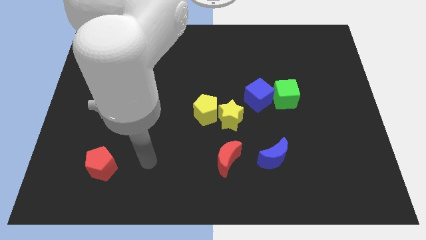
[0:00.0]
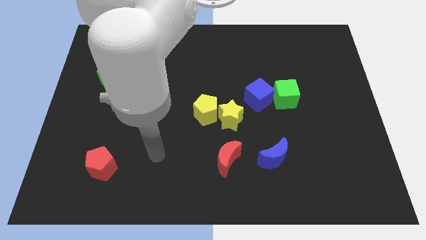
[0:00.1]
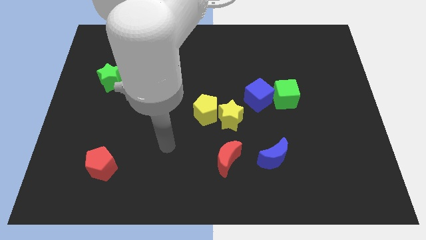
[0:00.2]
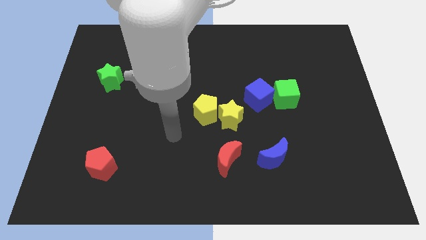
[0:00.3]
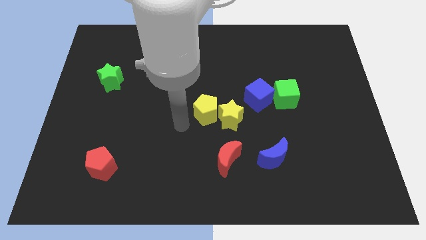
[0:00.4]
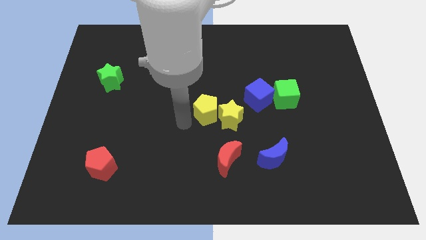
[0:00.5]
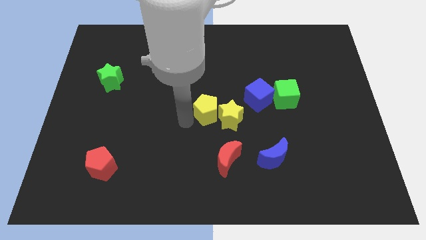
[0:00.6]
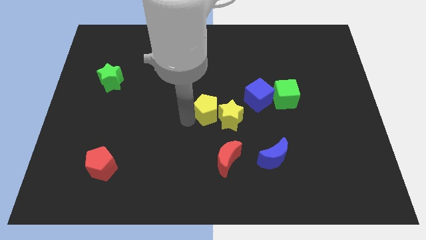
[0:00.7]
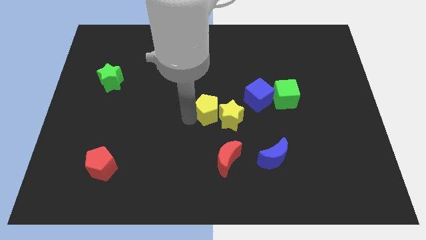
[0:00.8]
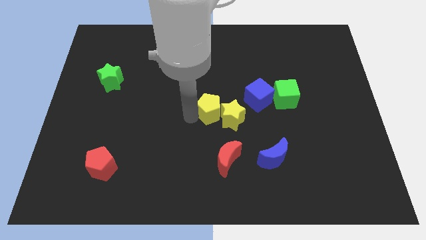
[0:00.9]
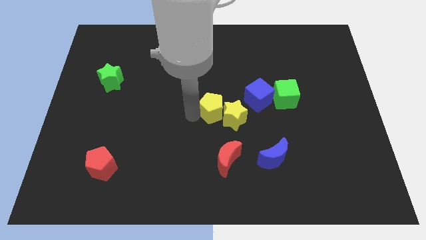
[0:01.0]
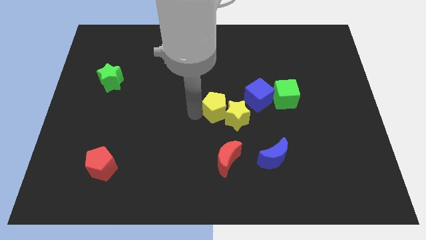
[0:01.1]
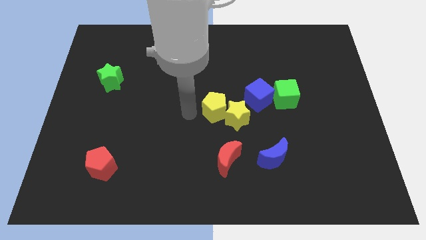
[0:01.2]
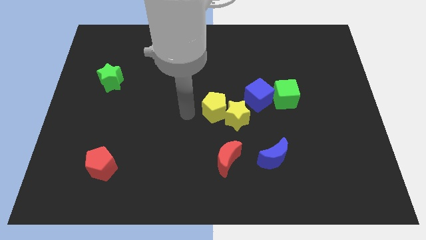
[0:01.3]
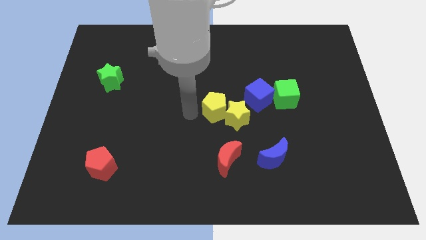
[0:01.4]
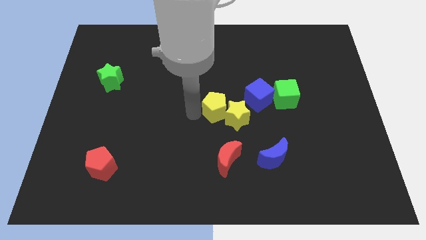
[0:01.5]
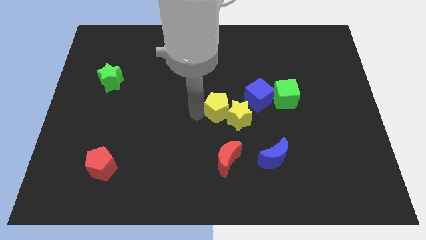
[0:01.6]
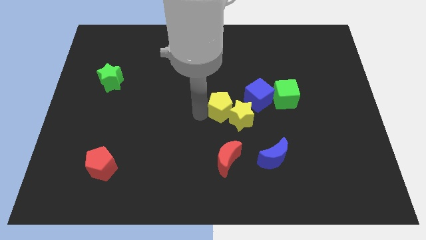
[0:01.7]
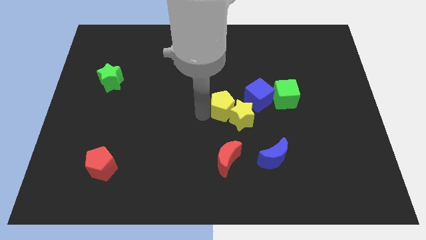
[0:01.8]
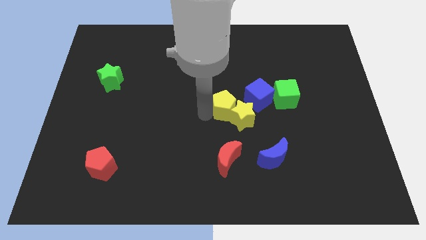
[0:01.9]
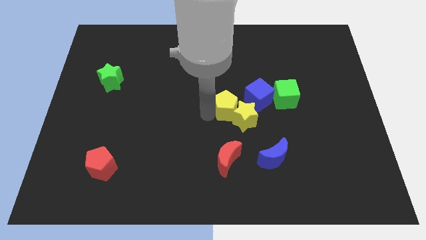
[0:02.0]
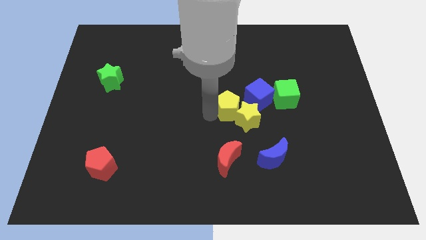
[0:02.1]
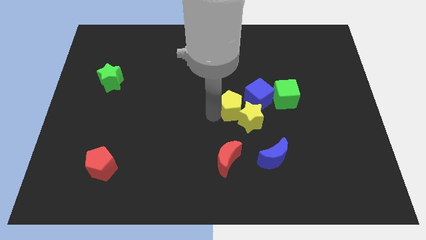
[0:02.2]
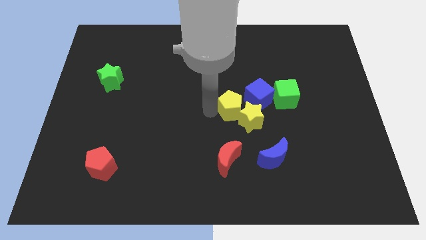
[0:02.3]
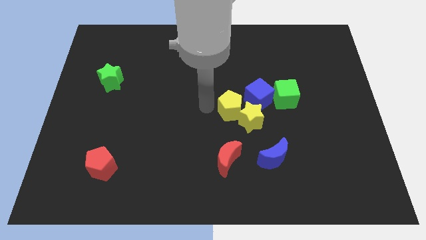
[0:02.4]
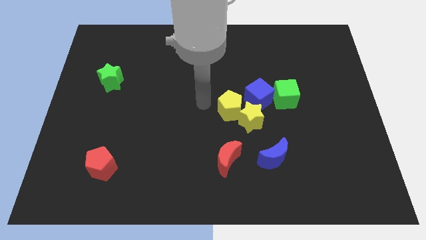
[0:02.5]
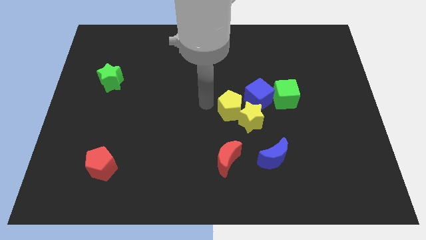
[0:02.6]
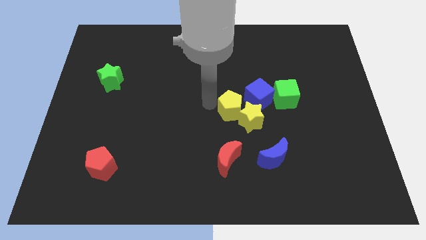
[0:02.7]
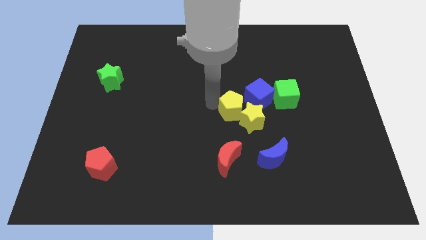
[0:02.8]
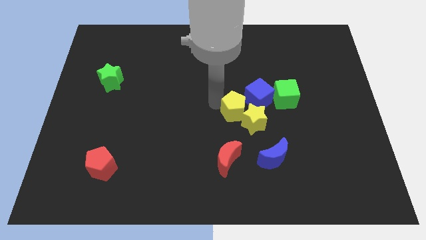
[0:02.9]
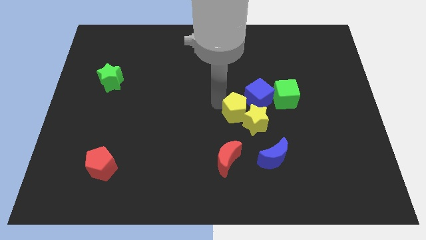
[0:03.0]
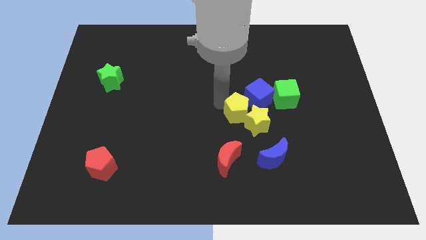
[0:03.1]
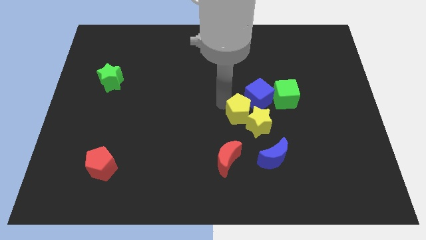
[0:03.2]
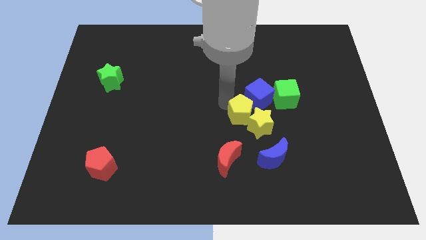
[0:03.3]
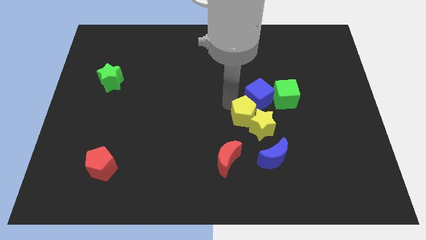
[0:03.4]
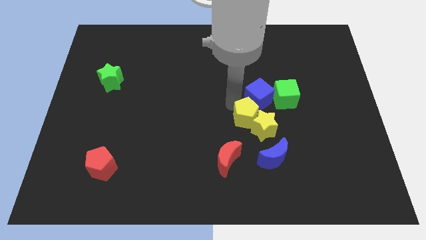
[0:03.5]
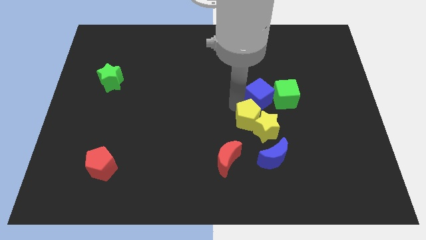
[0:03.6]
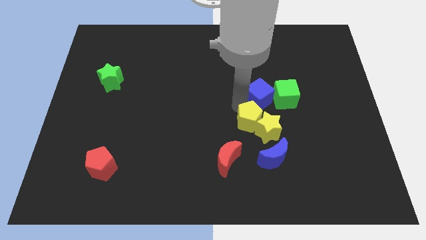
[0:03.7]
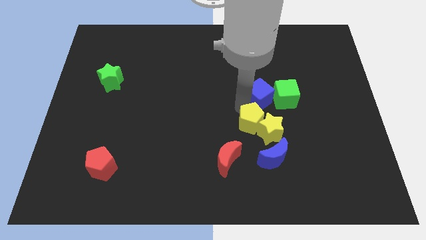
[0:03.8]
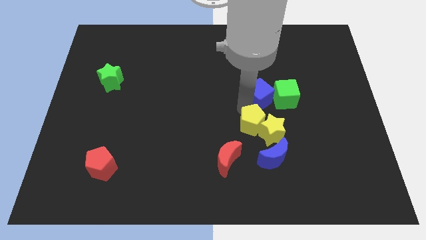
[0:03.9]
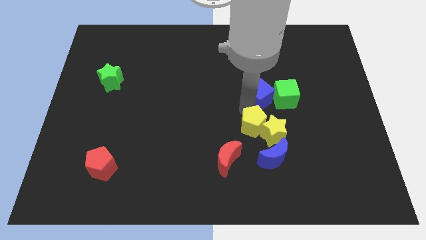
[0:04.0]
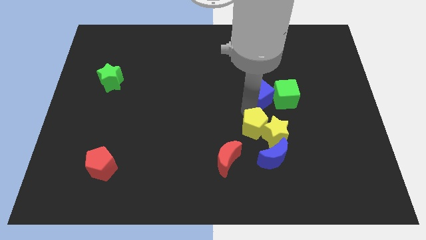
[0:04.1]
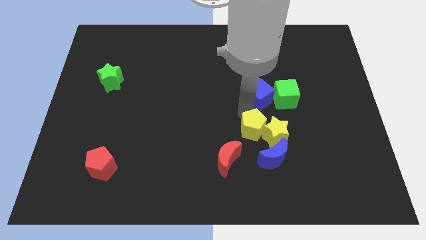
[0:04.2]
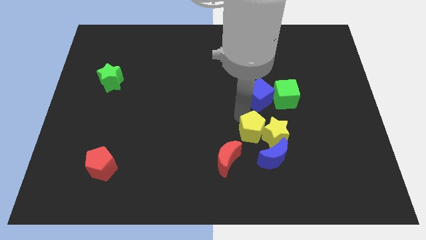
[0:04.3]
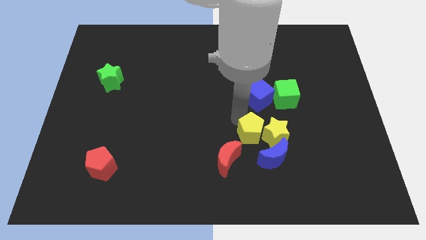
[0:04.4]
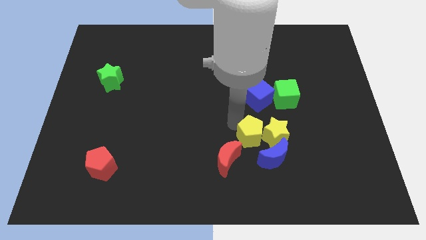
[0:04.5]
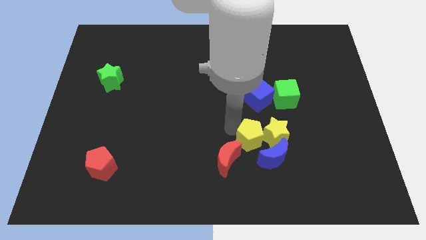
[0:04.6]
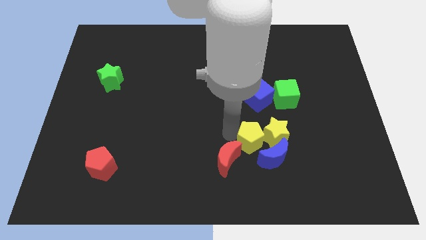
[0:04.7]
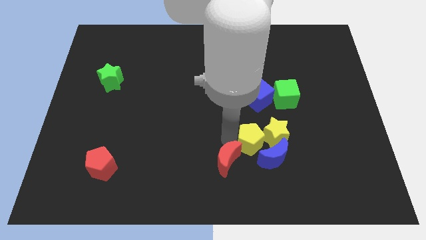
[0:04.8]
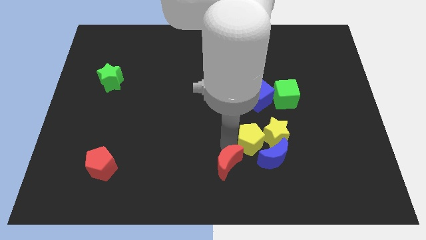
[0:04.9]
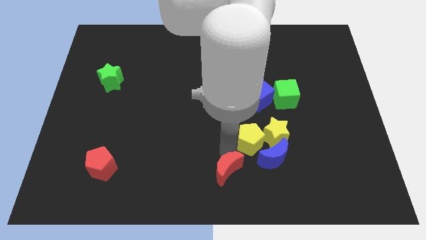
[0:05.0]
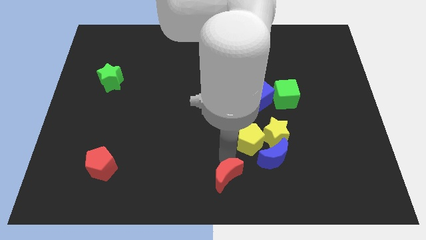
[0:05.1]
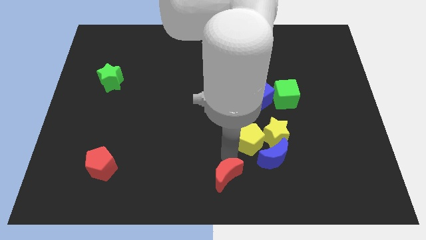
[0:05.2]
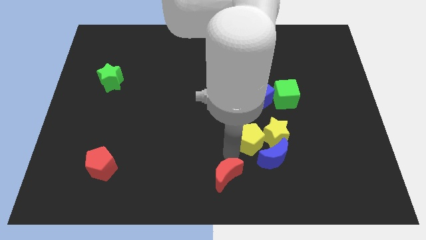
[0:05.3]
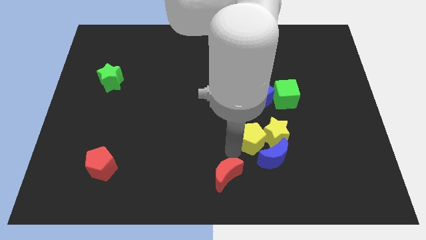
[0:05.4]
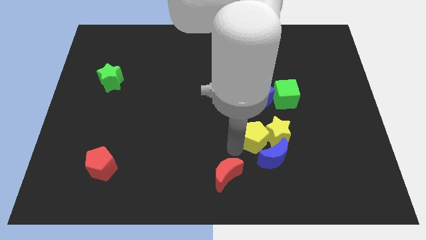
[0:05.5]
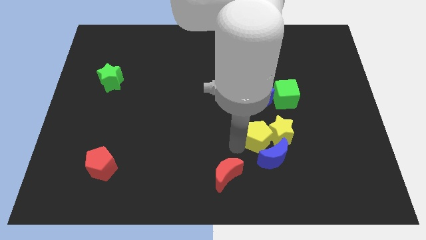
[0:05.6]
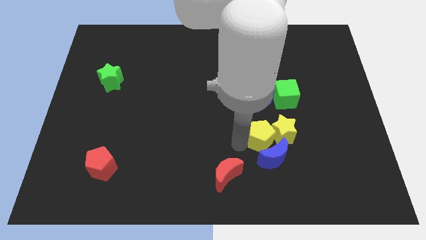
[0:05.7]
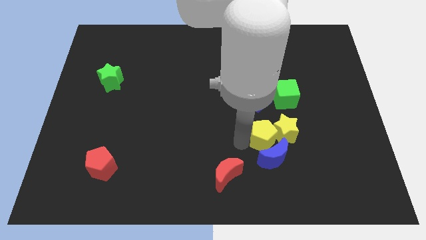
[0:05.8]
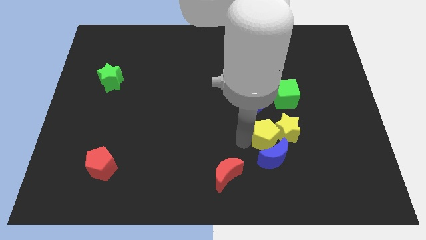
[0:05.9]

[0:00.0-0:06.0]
put the yellow pentagon diagonally up and to the right of the blue moon
